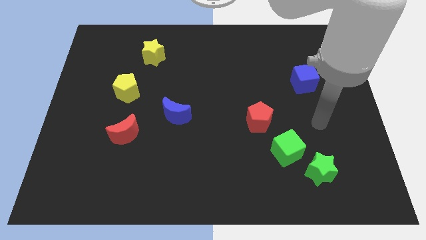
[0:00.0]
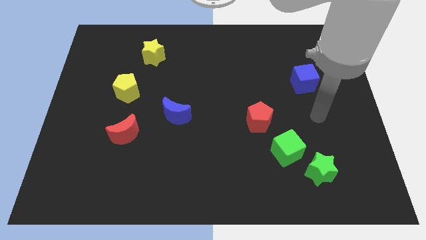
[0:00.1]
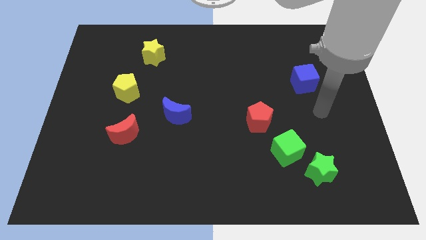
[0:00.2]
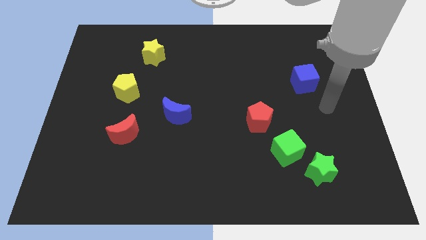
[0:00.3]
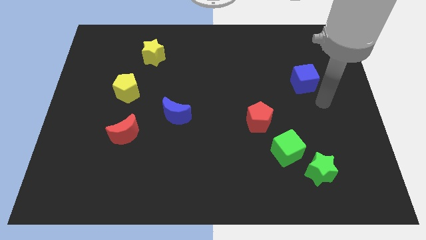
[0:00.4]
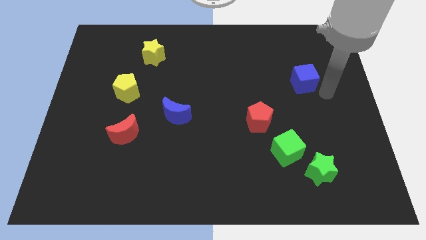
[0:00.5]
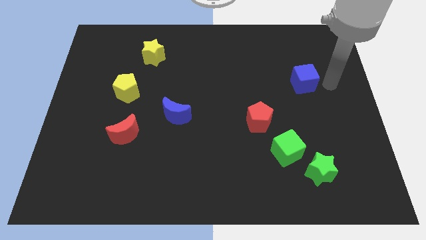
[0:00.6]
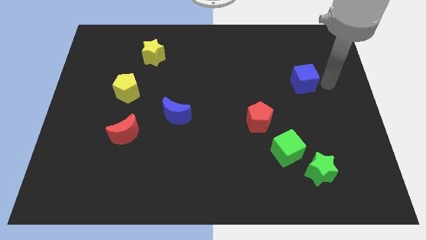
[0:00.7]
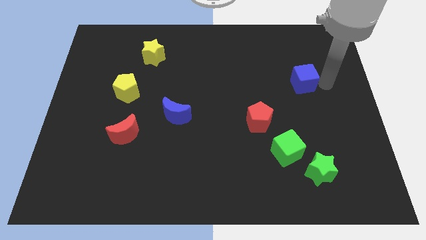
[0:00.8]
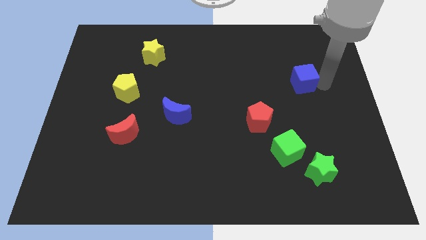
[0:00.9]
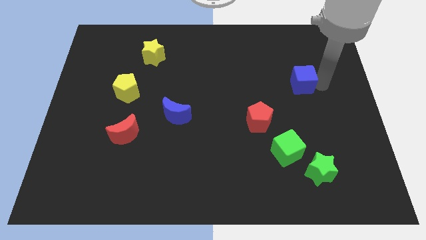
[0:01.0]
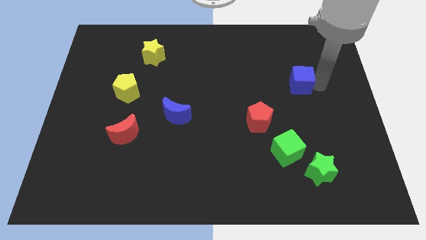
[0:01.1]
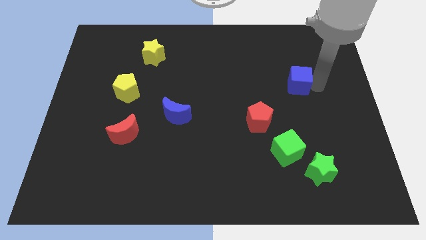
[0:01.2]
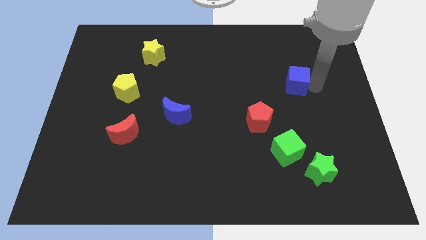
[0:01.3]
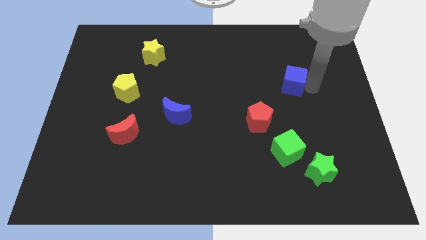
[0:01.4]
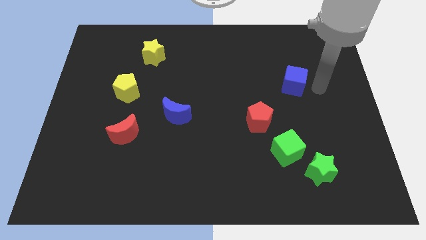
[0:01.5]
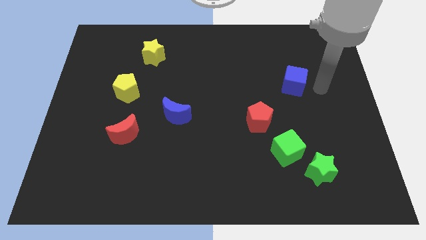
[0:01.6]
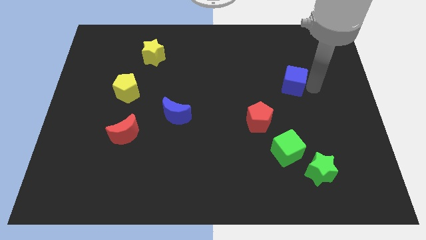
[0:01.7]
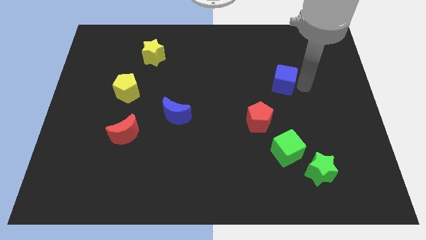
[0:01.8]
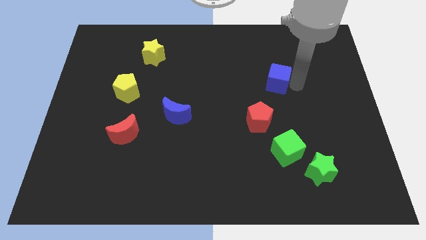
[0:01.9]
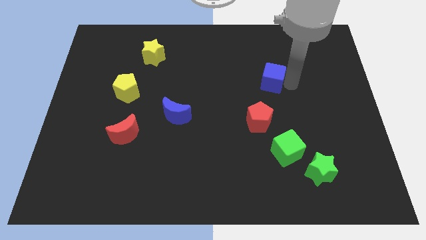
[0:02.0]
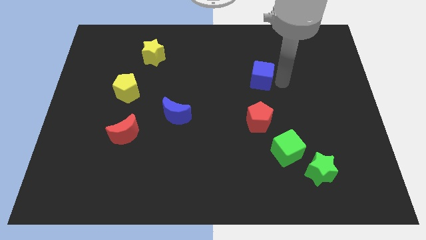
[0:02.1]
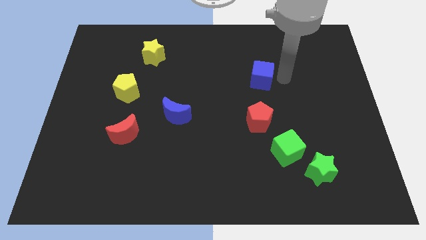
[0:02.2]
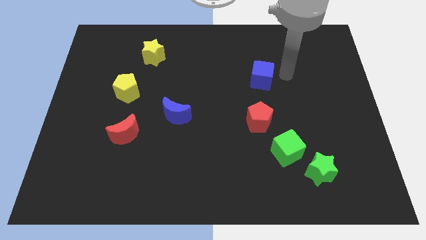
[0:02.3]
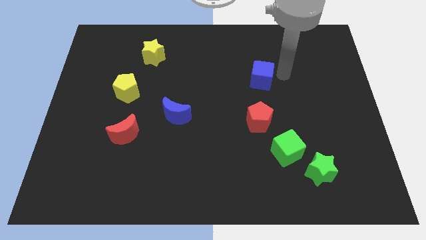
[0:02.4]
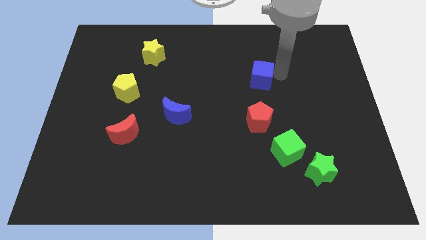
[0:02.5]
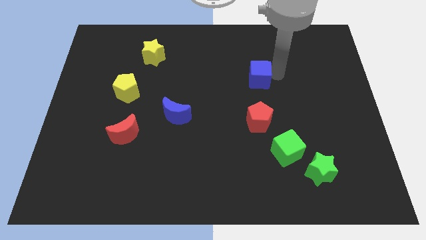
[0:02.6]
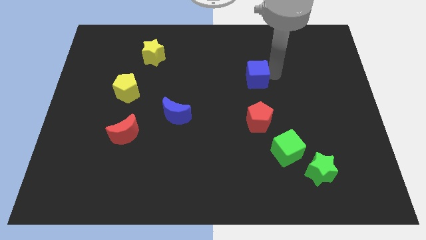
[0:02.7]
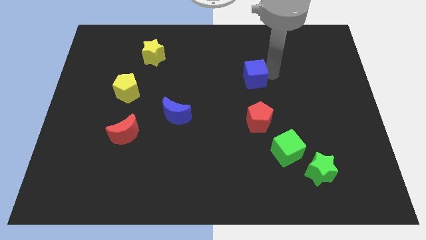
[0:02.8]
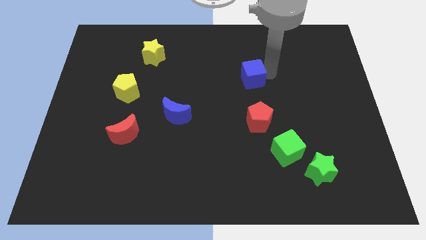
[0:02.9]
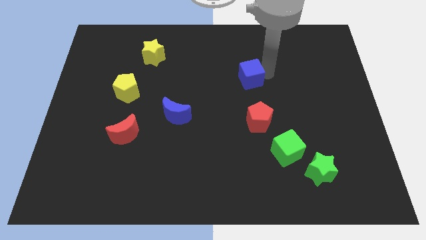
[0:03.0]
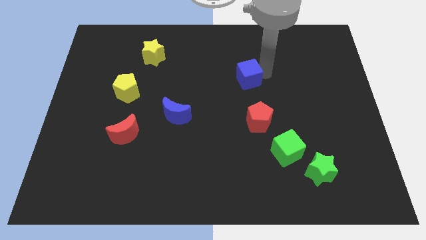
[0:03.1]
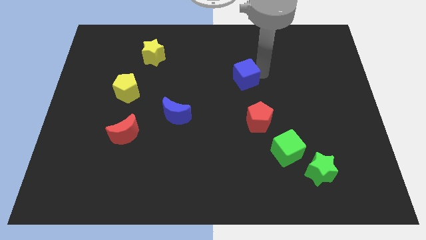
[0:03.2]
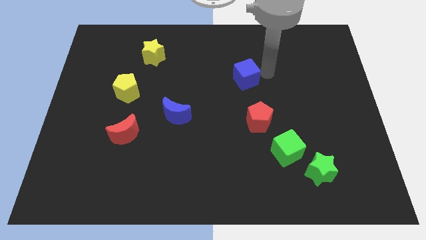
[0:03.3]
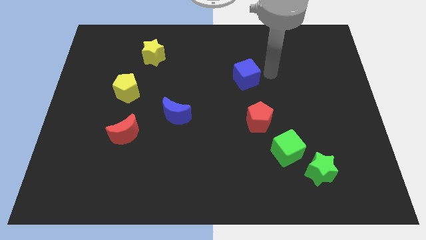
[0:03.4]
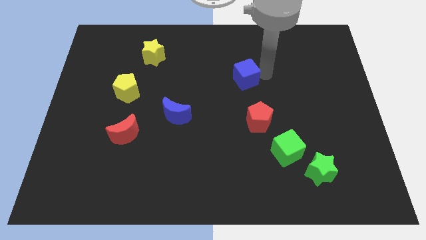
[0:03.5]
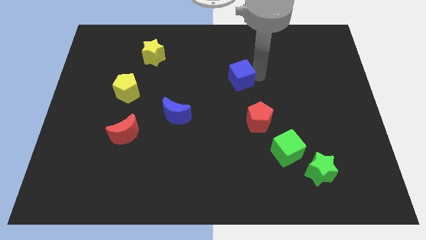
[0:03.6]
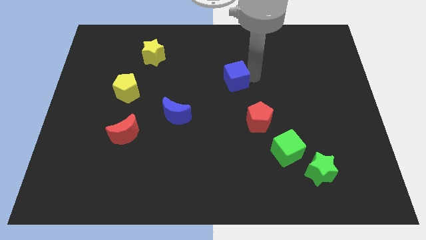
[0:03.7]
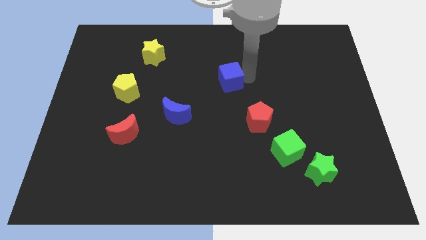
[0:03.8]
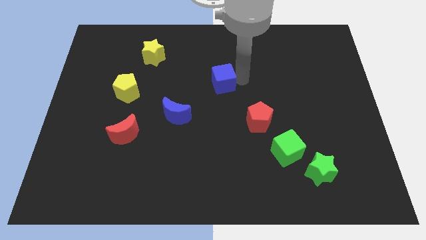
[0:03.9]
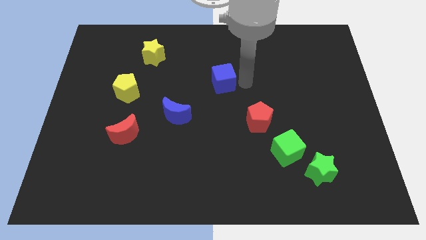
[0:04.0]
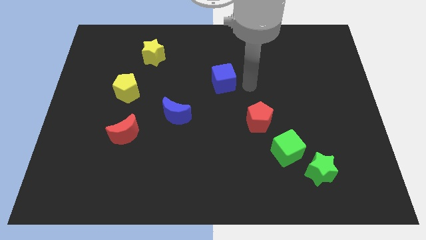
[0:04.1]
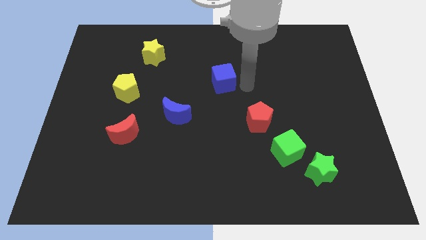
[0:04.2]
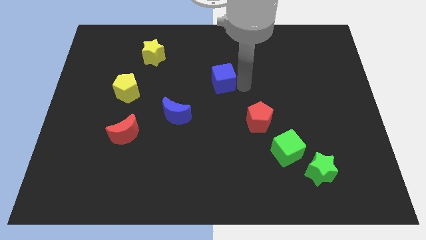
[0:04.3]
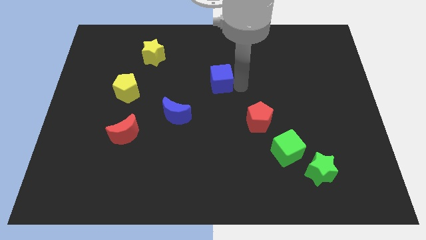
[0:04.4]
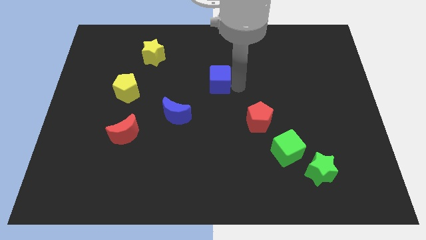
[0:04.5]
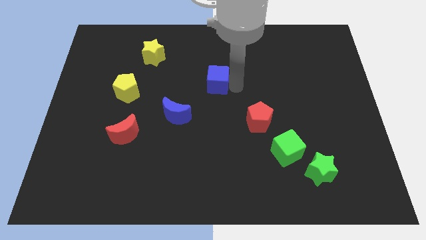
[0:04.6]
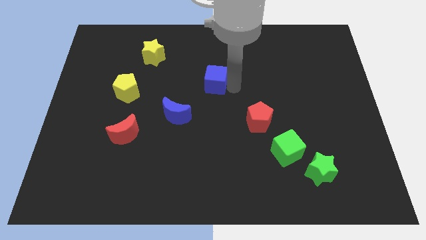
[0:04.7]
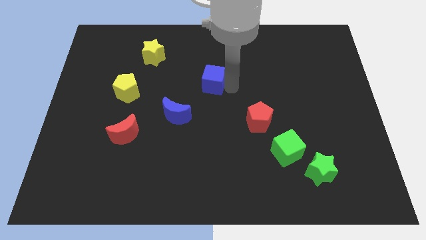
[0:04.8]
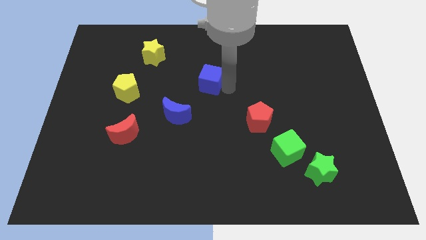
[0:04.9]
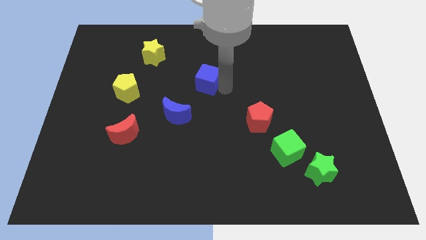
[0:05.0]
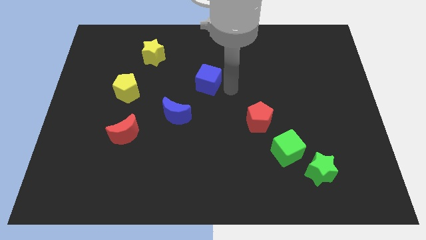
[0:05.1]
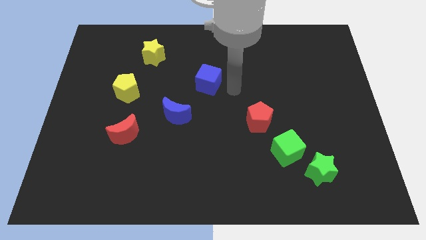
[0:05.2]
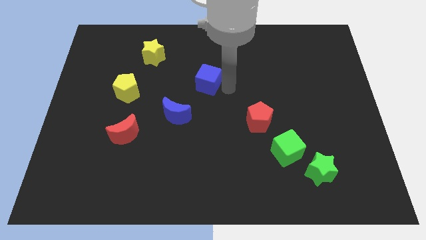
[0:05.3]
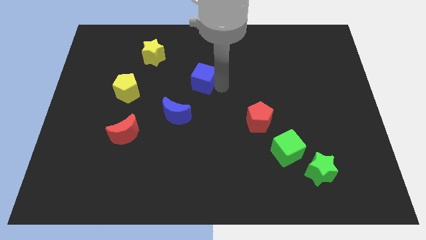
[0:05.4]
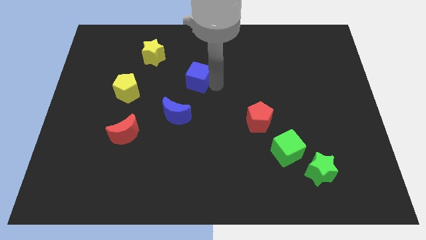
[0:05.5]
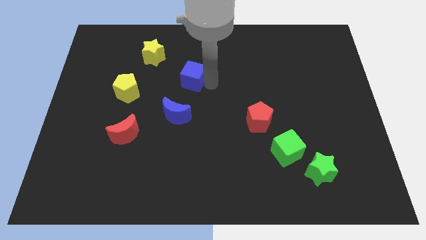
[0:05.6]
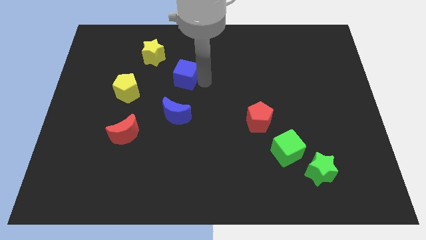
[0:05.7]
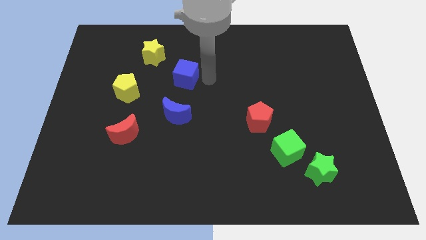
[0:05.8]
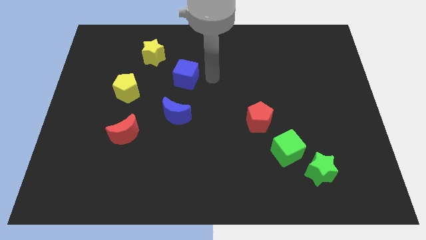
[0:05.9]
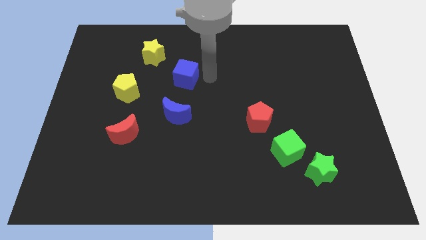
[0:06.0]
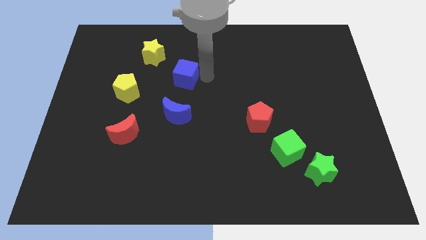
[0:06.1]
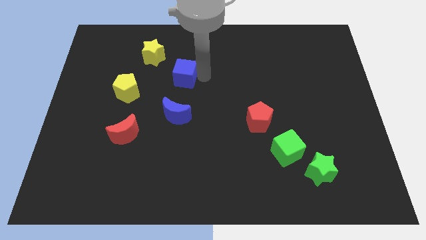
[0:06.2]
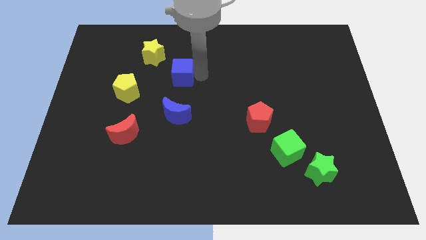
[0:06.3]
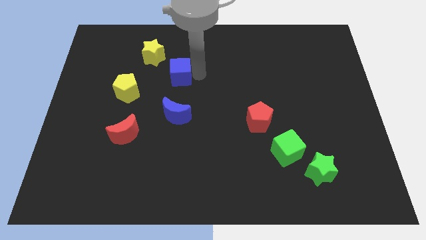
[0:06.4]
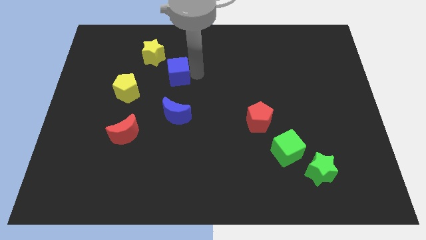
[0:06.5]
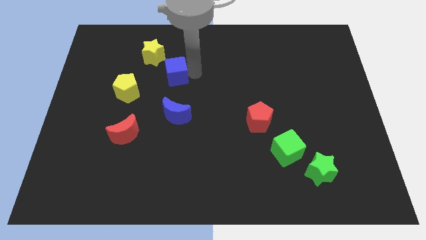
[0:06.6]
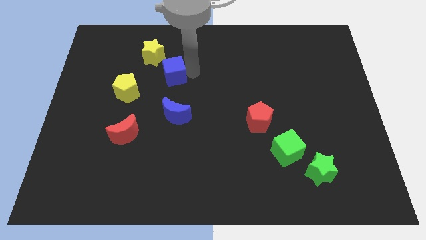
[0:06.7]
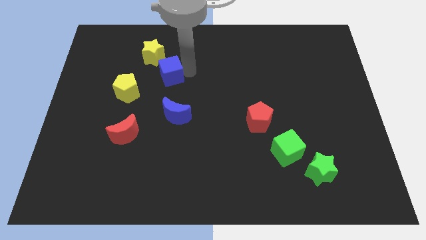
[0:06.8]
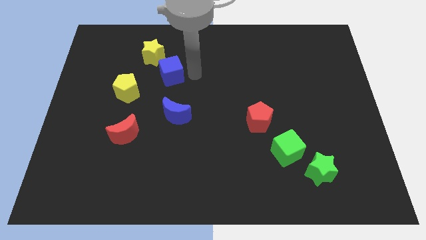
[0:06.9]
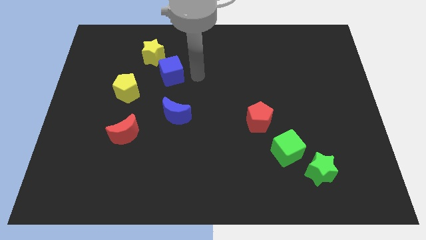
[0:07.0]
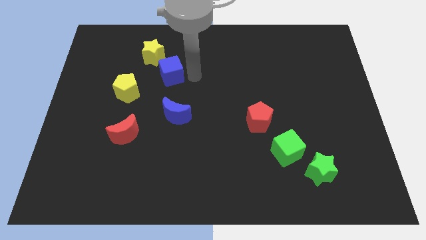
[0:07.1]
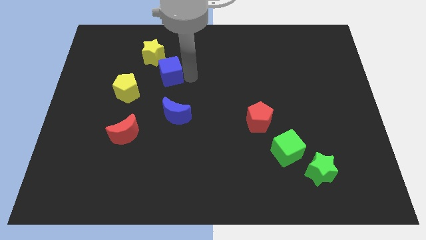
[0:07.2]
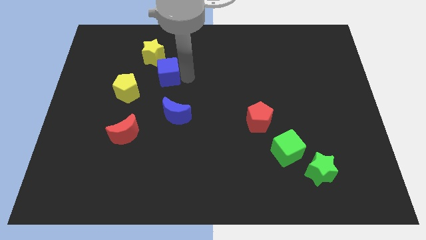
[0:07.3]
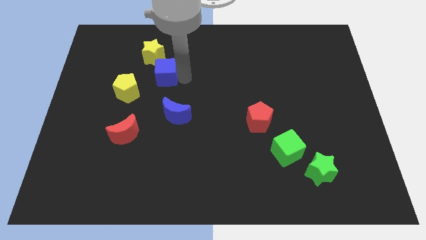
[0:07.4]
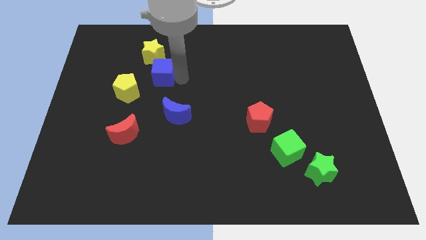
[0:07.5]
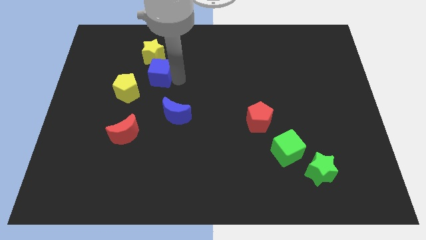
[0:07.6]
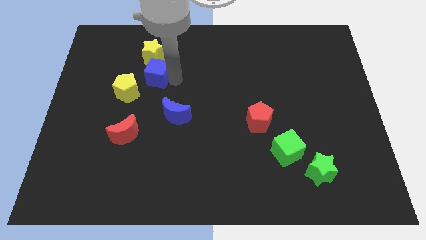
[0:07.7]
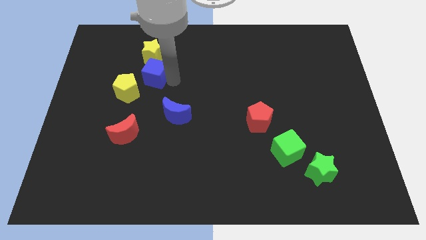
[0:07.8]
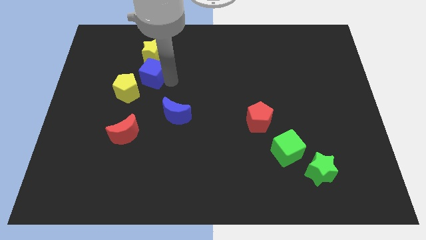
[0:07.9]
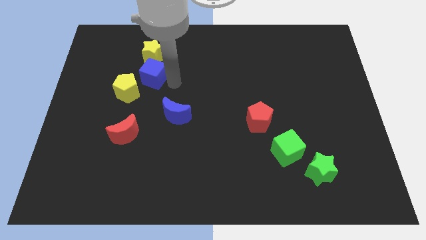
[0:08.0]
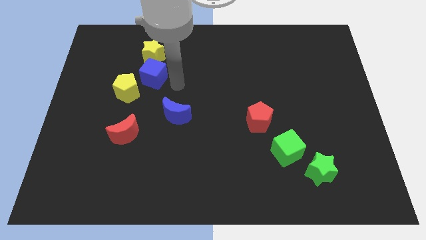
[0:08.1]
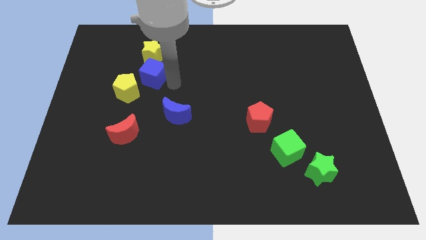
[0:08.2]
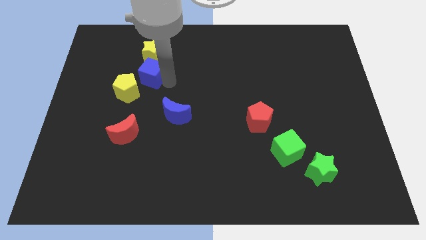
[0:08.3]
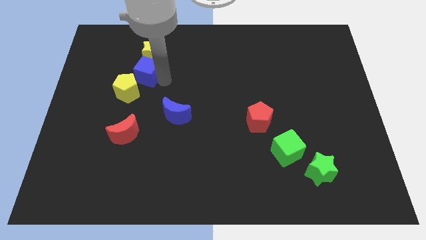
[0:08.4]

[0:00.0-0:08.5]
put the blue cube above the yellow pentagon
